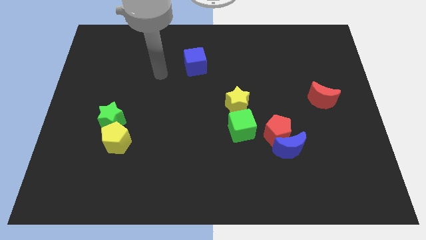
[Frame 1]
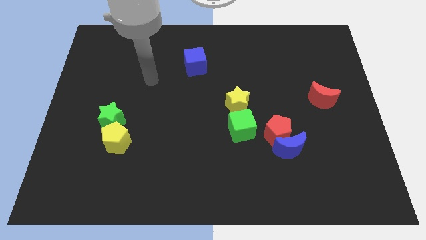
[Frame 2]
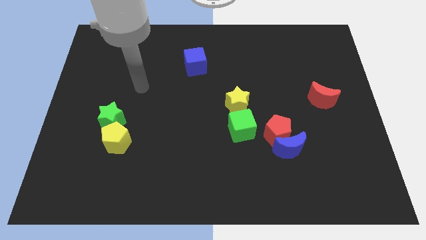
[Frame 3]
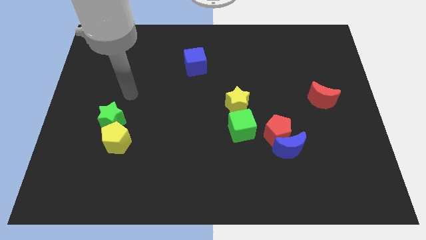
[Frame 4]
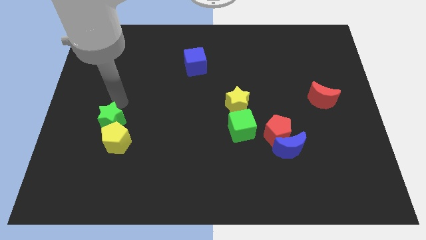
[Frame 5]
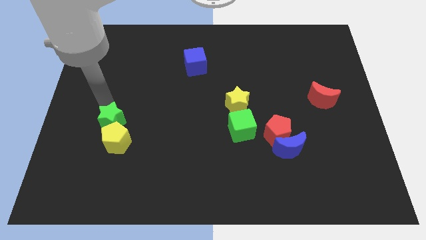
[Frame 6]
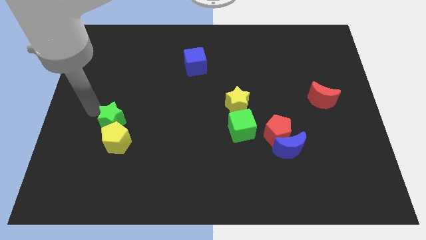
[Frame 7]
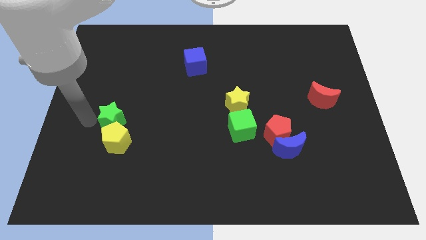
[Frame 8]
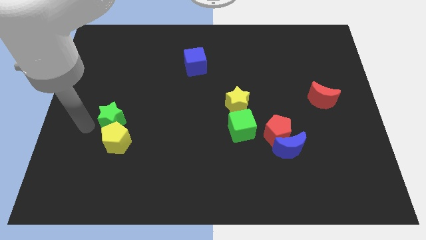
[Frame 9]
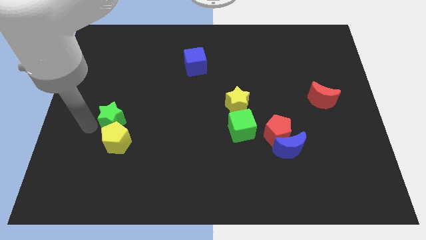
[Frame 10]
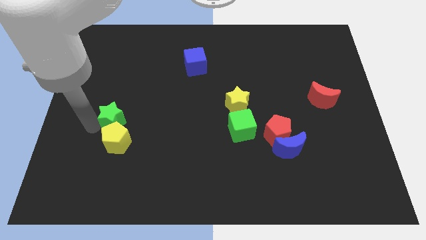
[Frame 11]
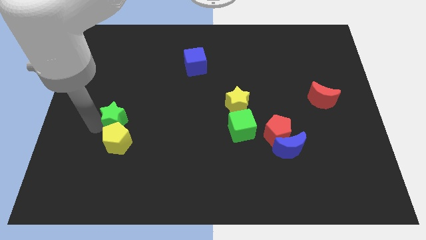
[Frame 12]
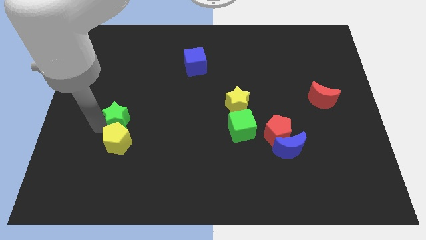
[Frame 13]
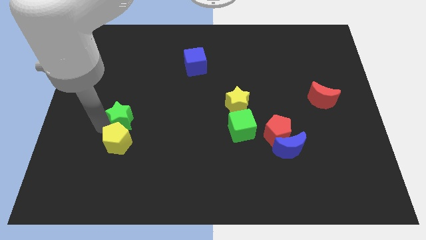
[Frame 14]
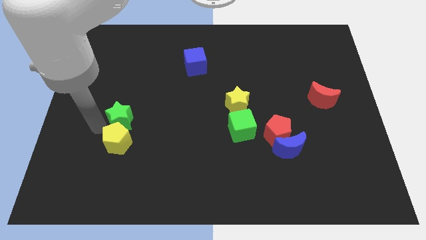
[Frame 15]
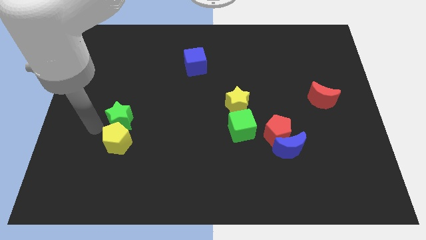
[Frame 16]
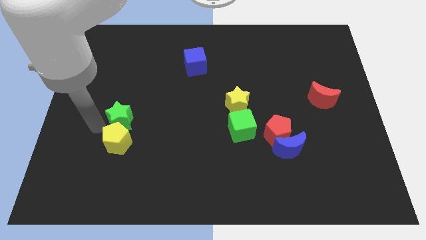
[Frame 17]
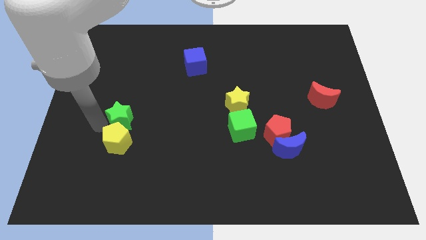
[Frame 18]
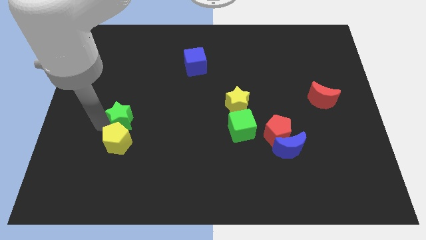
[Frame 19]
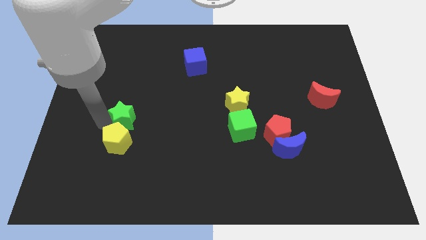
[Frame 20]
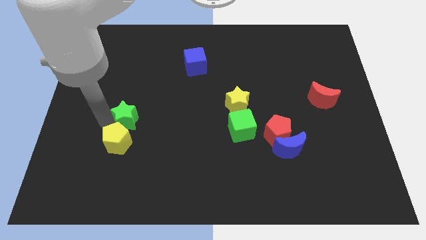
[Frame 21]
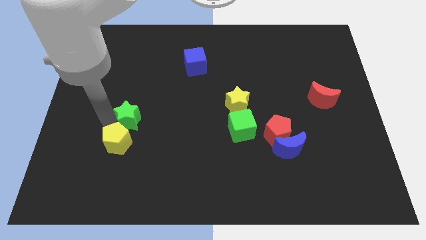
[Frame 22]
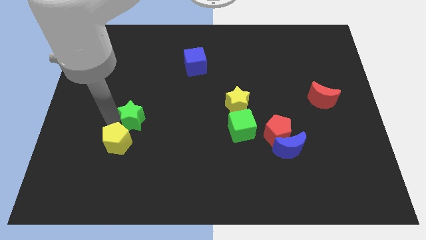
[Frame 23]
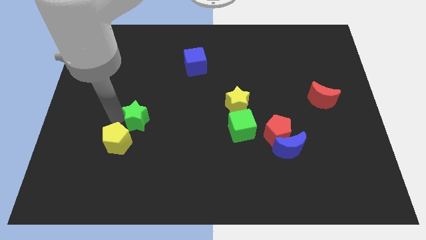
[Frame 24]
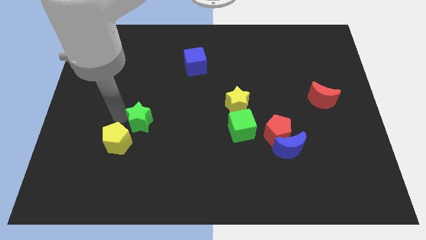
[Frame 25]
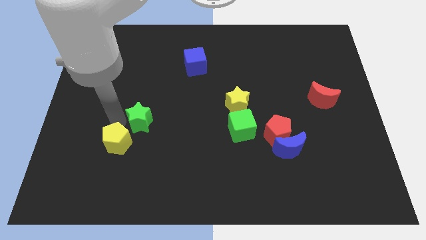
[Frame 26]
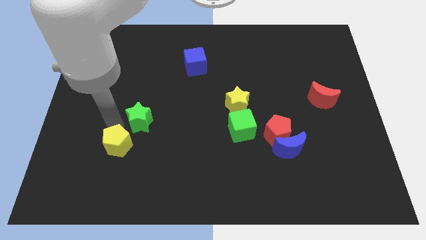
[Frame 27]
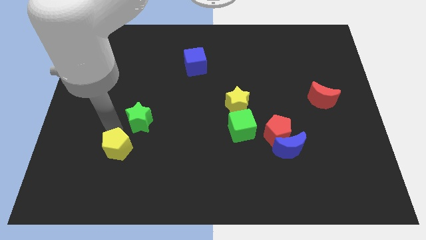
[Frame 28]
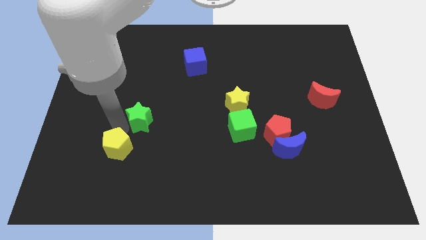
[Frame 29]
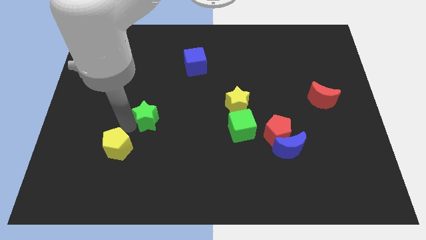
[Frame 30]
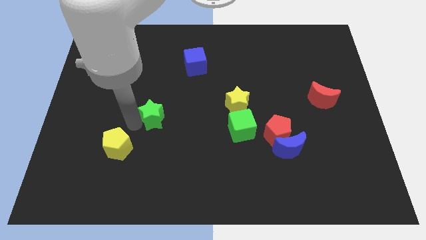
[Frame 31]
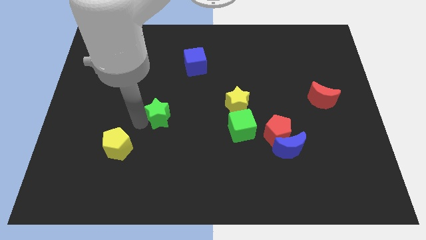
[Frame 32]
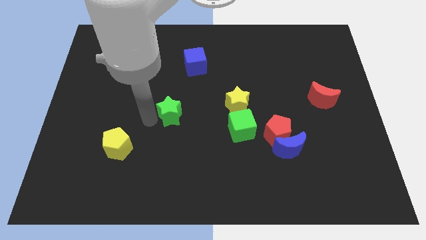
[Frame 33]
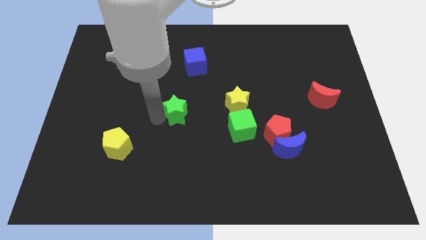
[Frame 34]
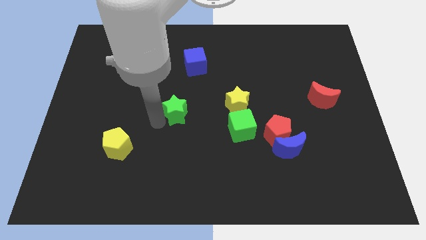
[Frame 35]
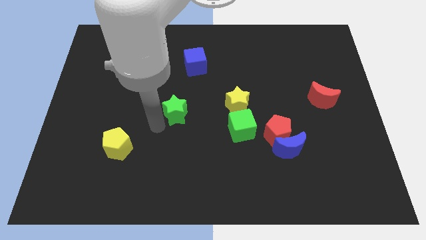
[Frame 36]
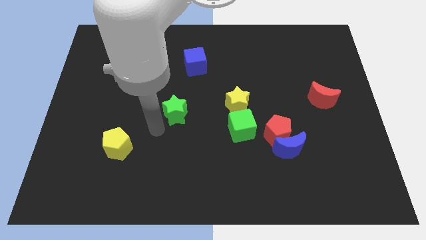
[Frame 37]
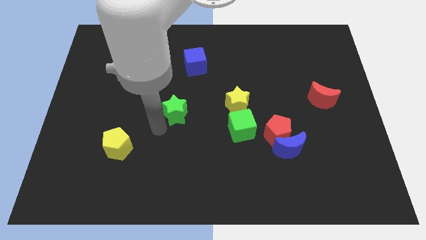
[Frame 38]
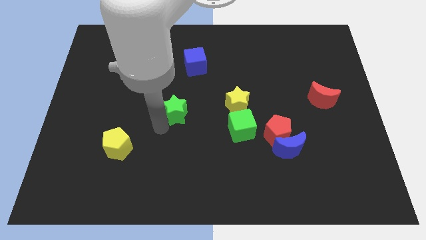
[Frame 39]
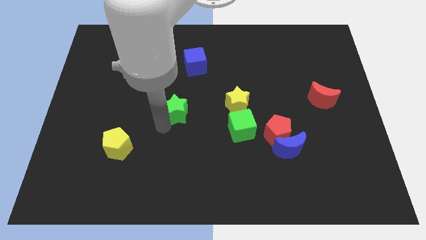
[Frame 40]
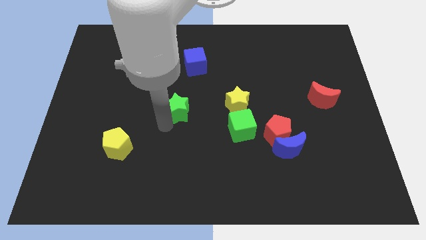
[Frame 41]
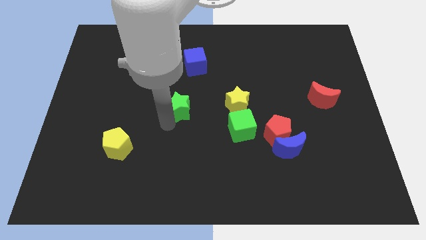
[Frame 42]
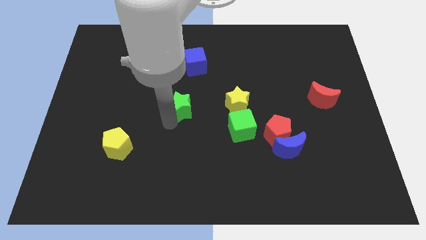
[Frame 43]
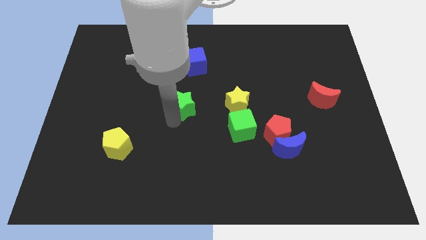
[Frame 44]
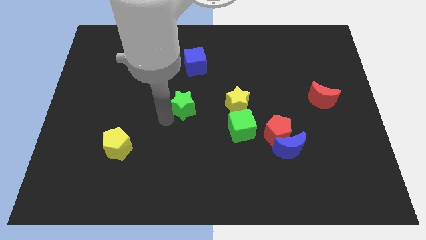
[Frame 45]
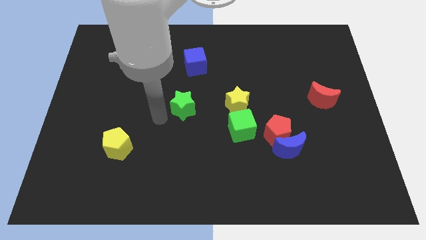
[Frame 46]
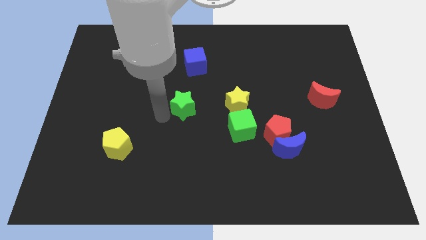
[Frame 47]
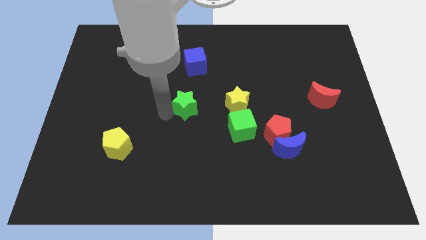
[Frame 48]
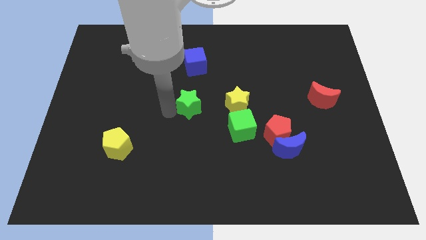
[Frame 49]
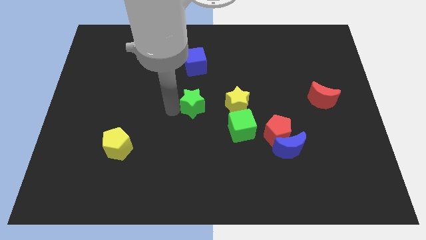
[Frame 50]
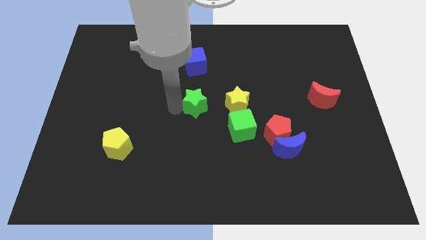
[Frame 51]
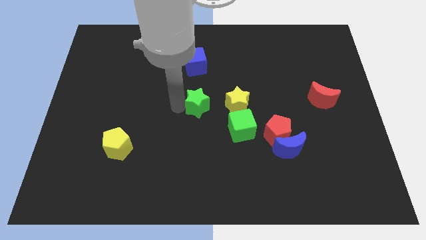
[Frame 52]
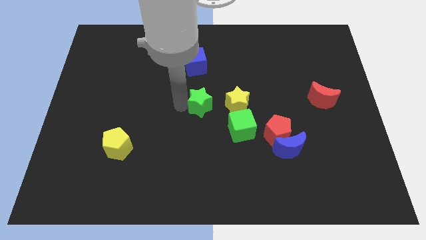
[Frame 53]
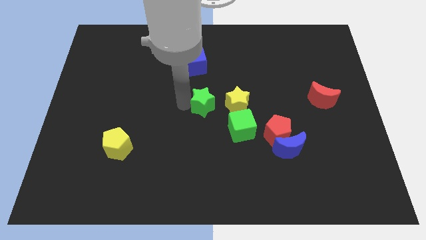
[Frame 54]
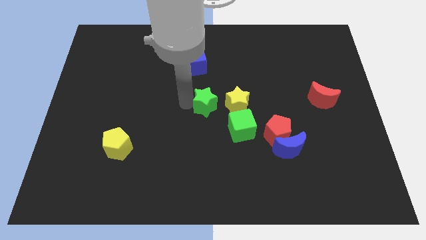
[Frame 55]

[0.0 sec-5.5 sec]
slide the green star right

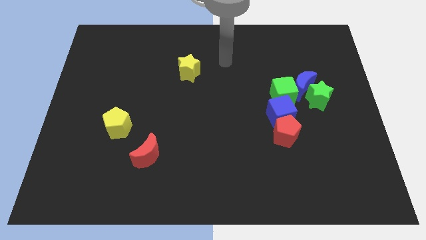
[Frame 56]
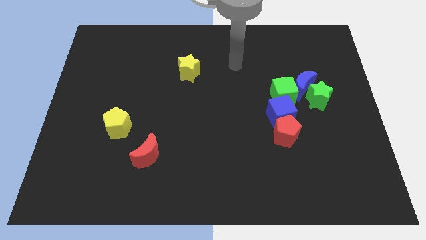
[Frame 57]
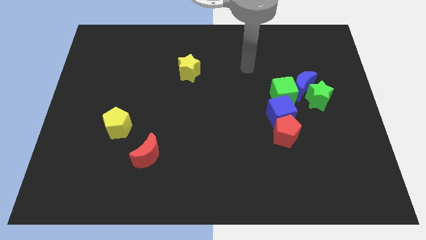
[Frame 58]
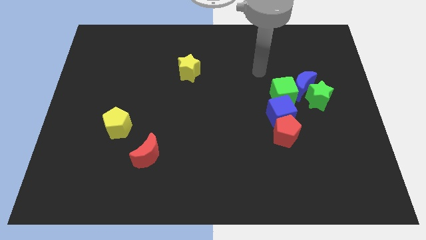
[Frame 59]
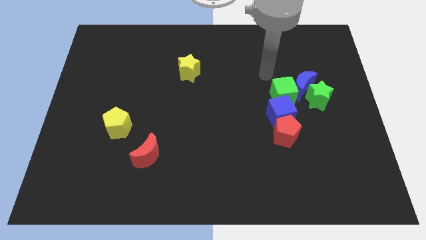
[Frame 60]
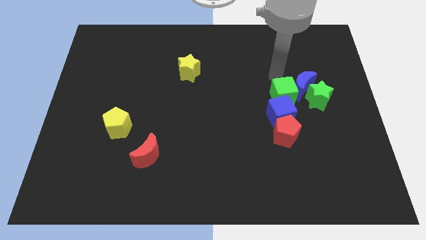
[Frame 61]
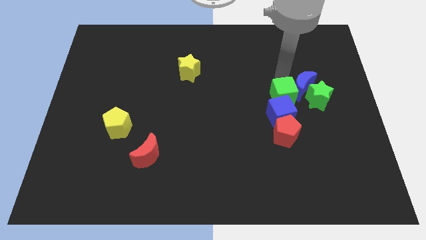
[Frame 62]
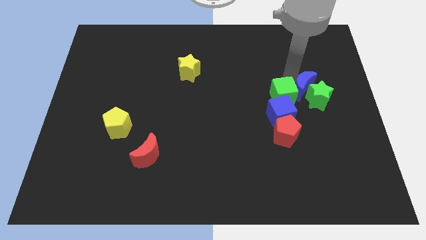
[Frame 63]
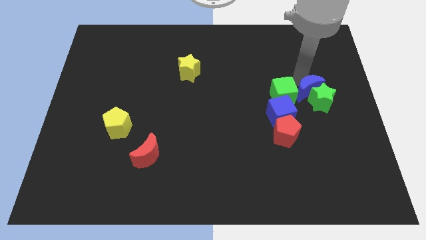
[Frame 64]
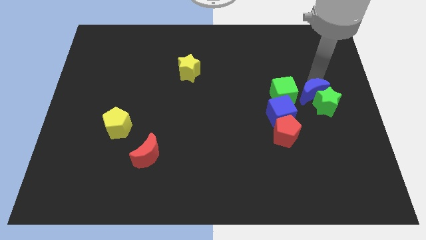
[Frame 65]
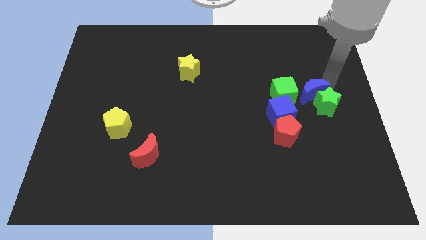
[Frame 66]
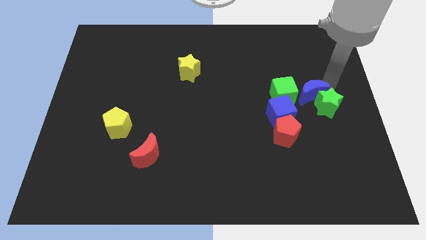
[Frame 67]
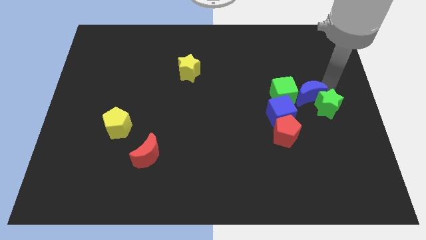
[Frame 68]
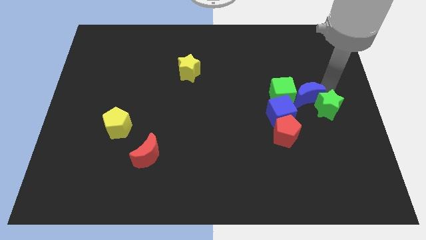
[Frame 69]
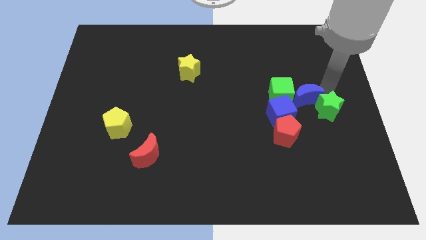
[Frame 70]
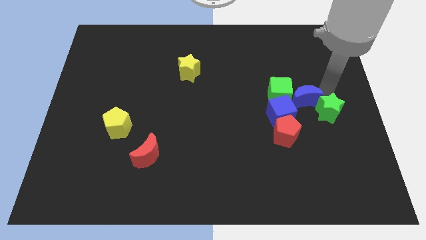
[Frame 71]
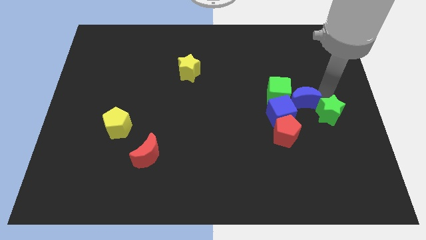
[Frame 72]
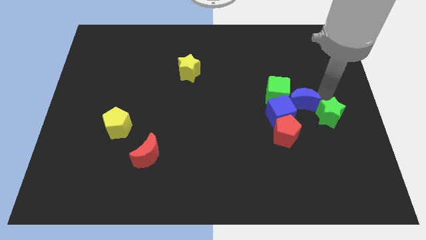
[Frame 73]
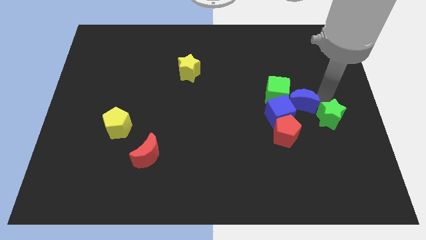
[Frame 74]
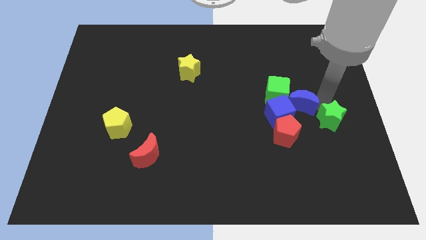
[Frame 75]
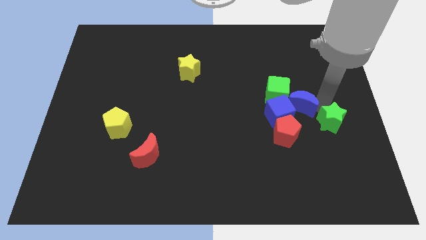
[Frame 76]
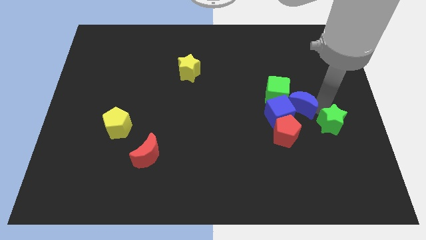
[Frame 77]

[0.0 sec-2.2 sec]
push the green star down a little bit

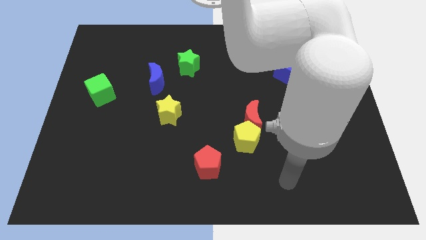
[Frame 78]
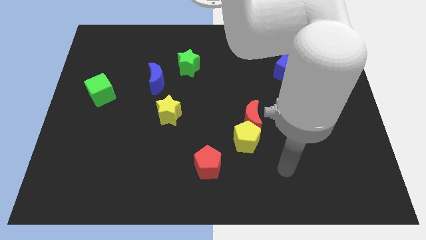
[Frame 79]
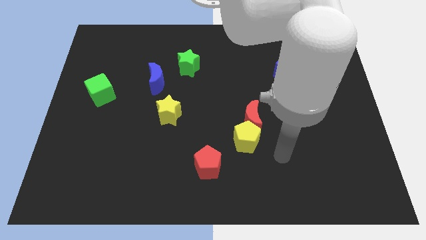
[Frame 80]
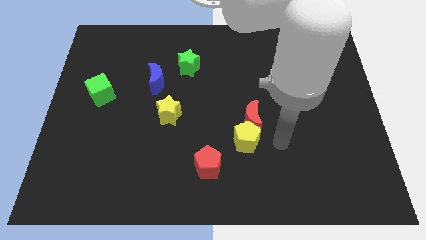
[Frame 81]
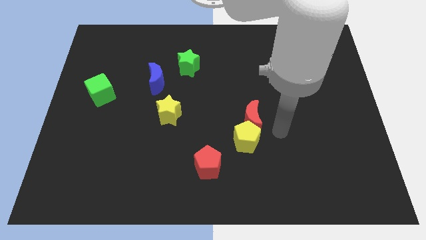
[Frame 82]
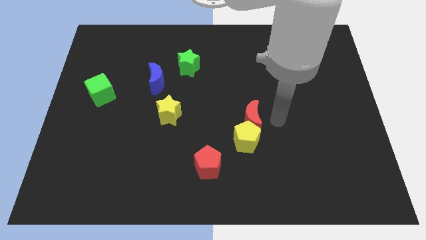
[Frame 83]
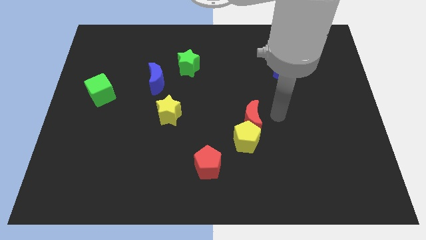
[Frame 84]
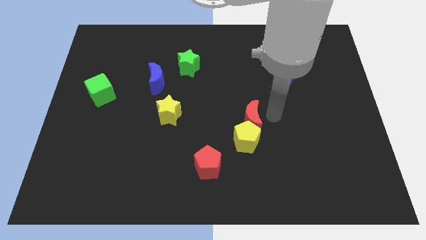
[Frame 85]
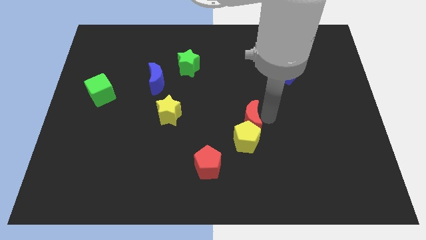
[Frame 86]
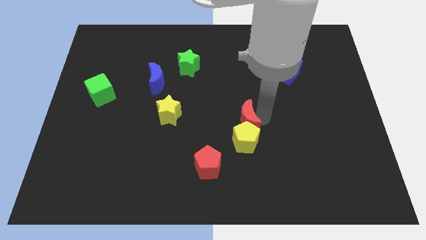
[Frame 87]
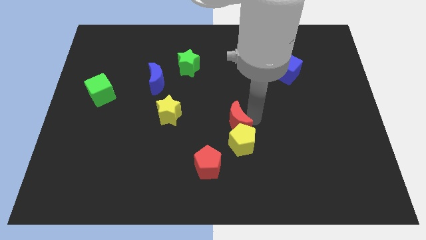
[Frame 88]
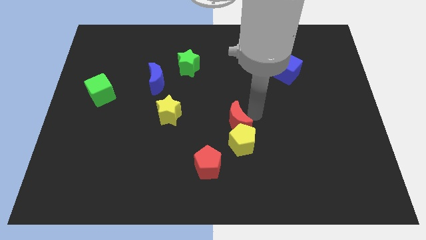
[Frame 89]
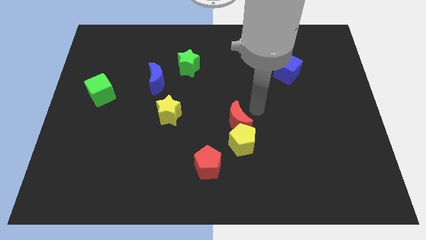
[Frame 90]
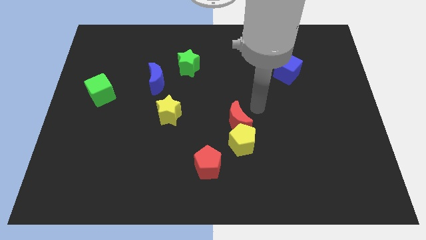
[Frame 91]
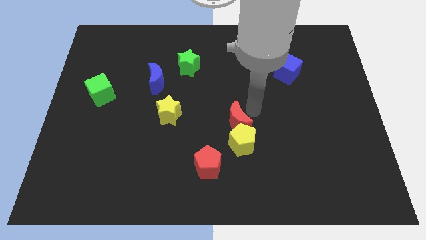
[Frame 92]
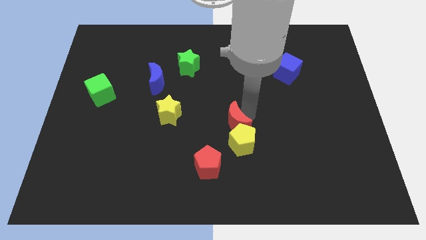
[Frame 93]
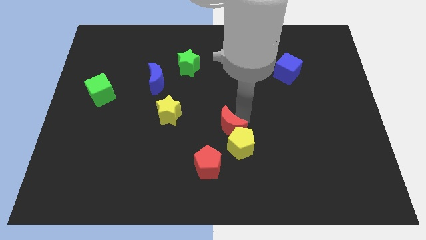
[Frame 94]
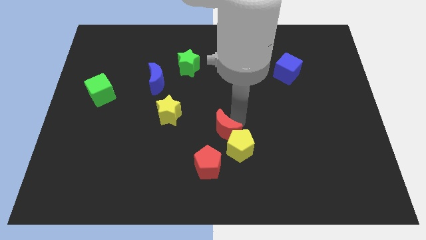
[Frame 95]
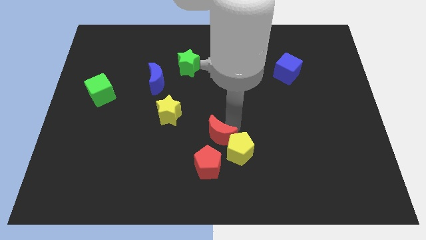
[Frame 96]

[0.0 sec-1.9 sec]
slightly push the red moon downwards and to the left diagonally
